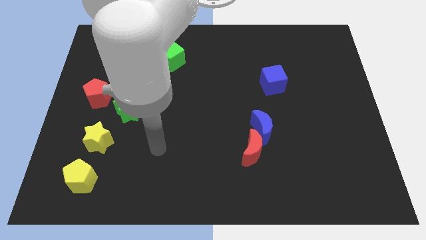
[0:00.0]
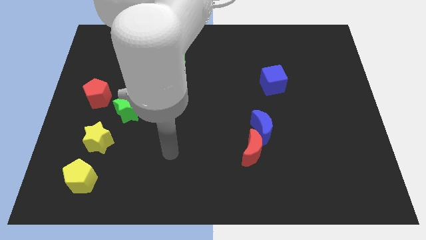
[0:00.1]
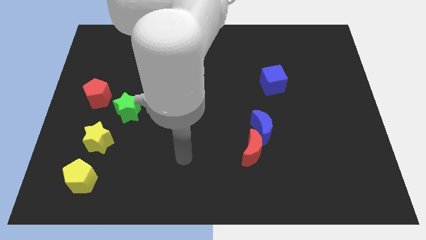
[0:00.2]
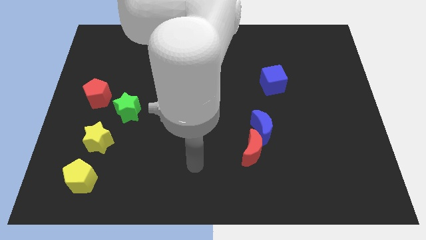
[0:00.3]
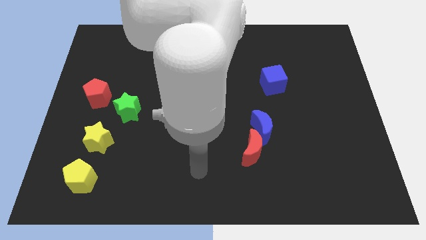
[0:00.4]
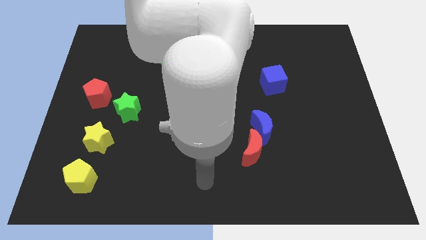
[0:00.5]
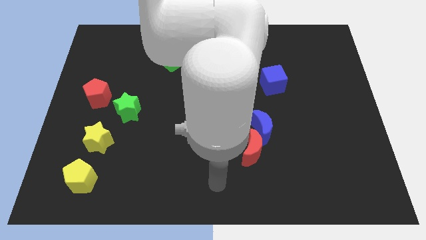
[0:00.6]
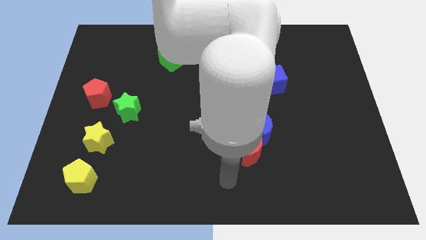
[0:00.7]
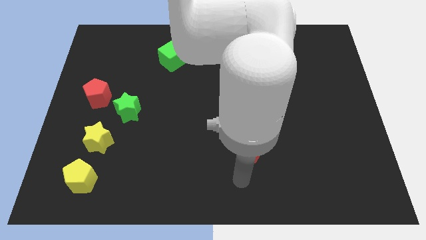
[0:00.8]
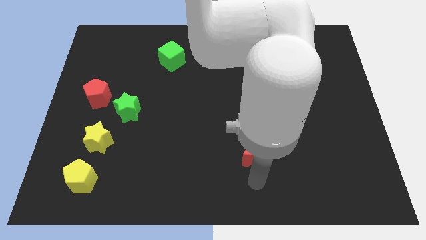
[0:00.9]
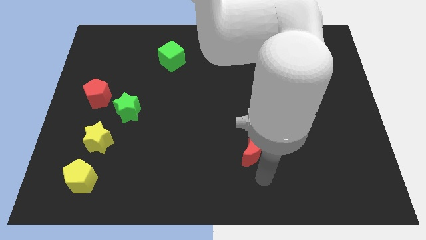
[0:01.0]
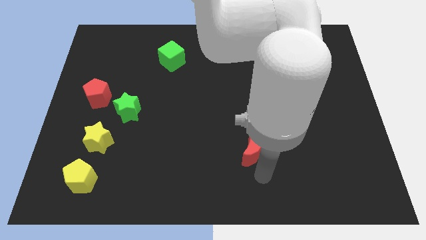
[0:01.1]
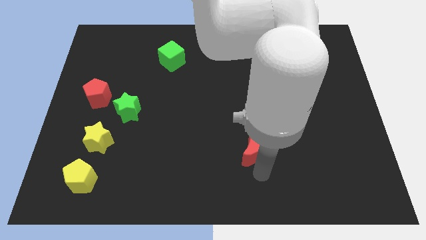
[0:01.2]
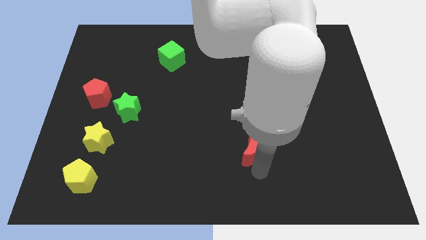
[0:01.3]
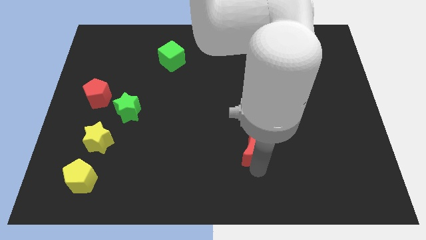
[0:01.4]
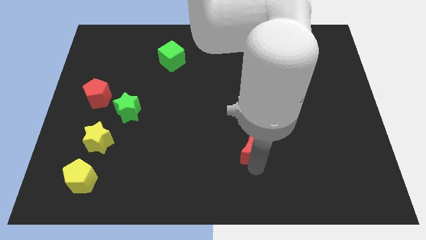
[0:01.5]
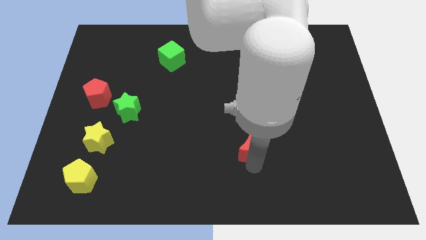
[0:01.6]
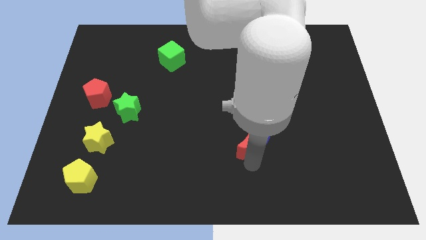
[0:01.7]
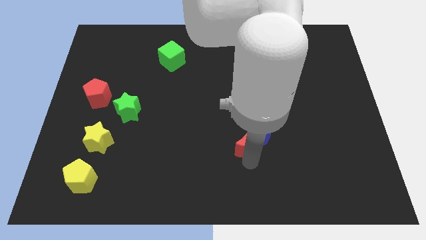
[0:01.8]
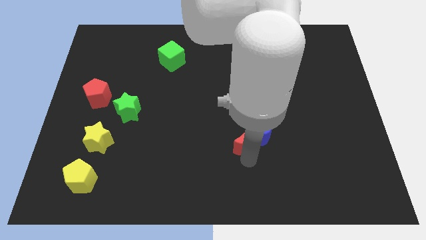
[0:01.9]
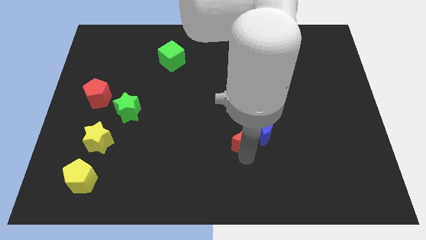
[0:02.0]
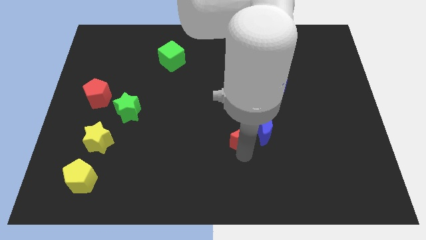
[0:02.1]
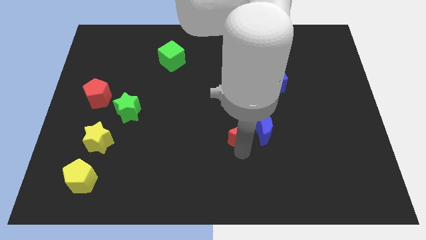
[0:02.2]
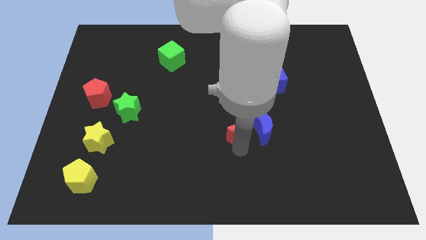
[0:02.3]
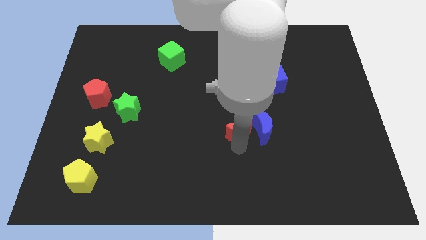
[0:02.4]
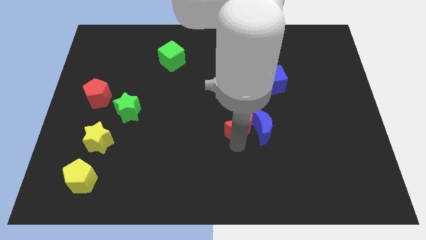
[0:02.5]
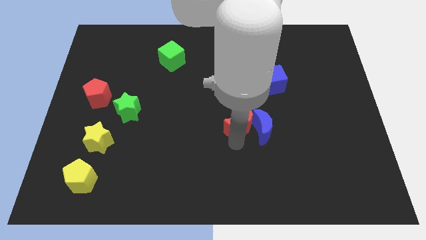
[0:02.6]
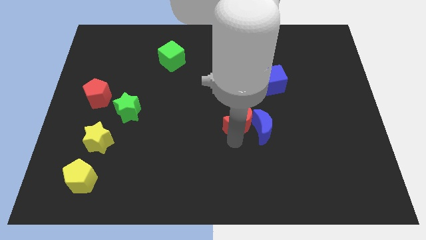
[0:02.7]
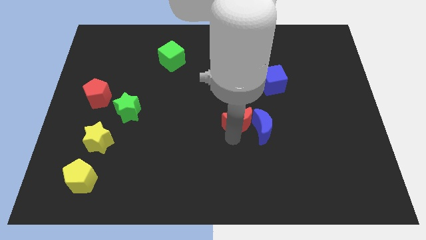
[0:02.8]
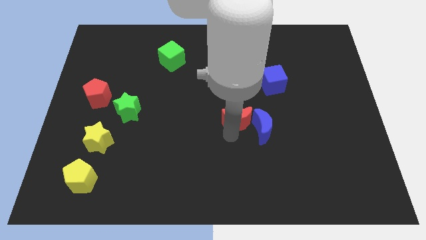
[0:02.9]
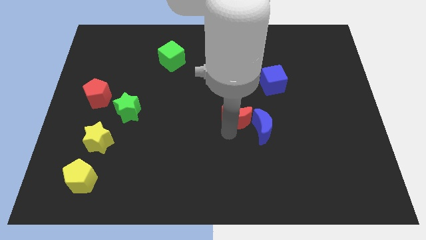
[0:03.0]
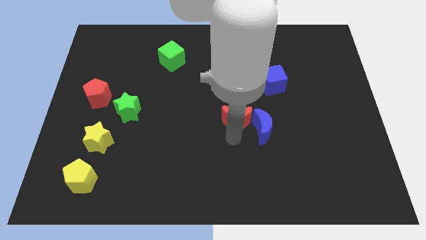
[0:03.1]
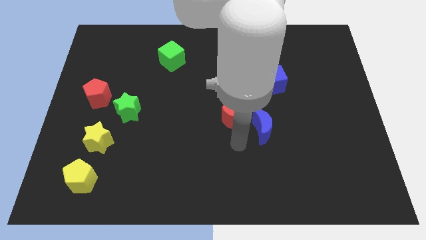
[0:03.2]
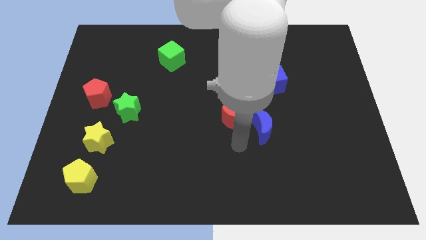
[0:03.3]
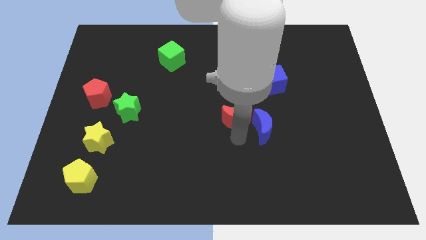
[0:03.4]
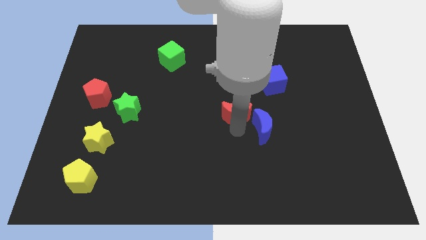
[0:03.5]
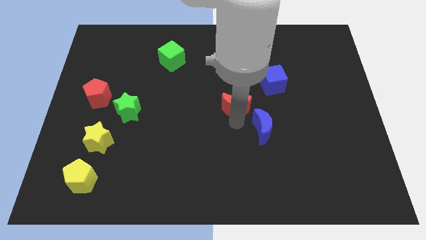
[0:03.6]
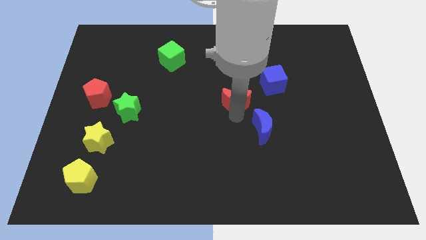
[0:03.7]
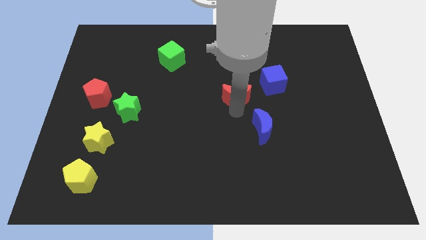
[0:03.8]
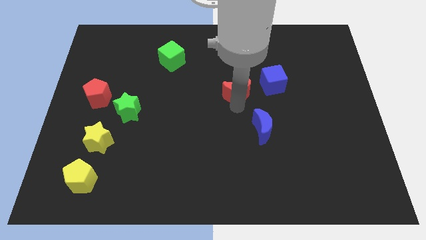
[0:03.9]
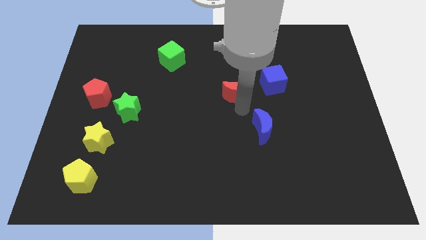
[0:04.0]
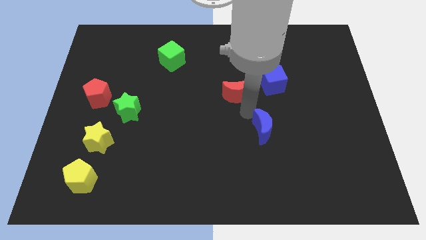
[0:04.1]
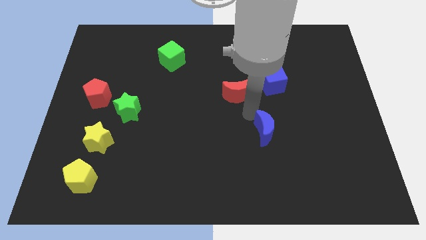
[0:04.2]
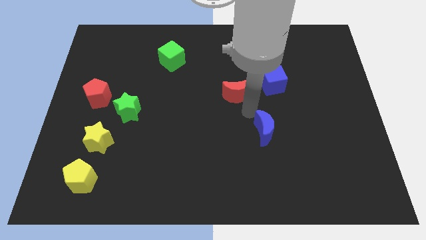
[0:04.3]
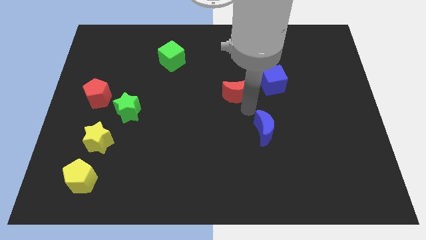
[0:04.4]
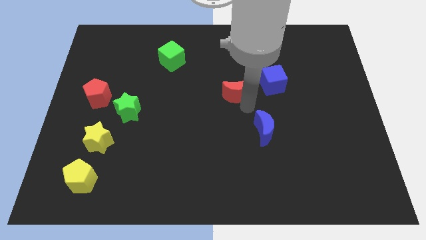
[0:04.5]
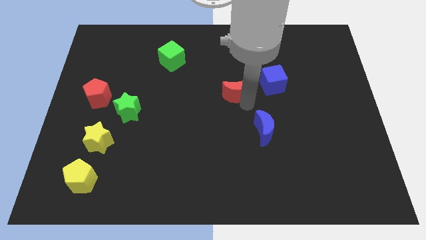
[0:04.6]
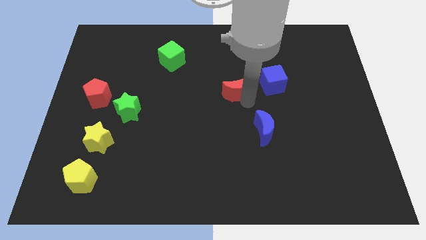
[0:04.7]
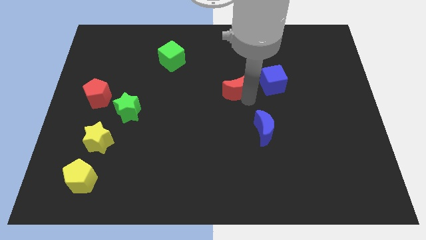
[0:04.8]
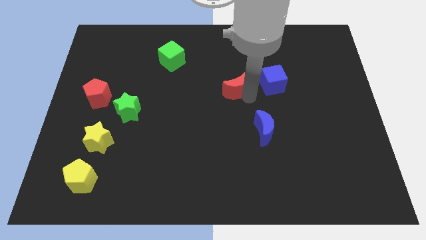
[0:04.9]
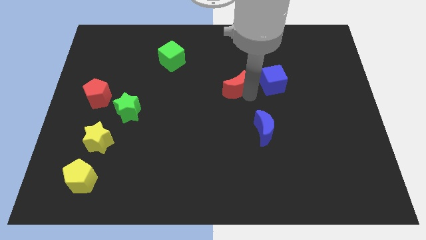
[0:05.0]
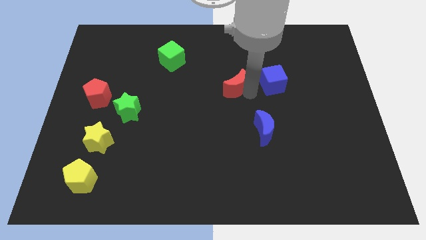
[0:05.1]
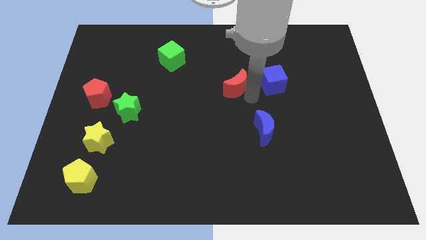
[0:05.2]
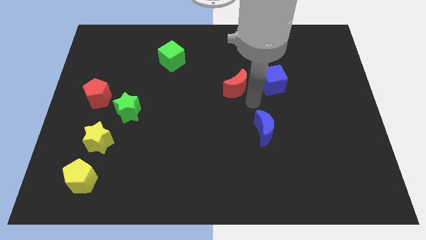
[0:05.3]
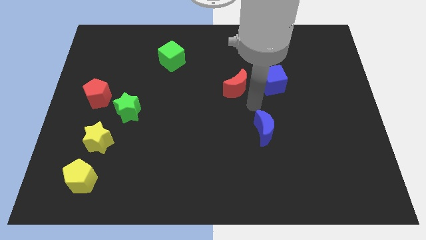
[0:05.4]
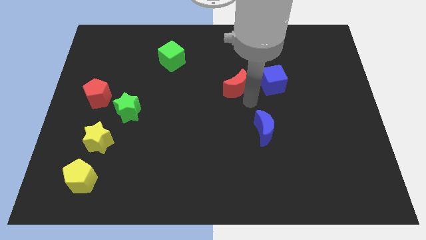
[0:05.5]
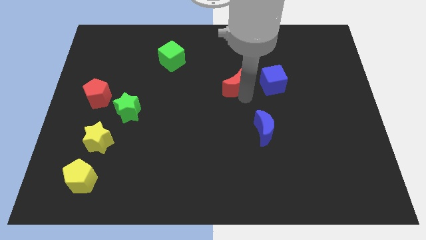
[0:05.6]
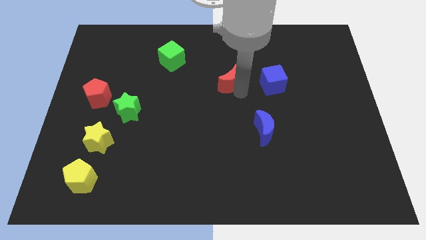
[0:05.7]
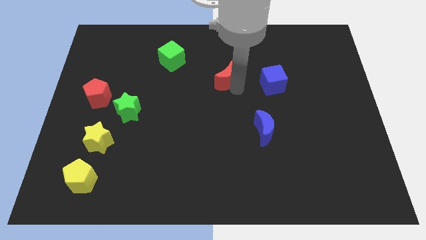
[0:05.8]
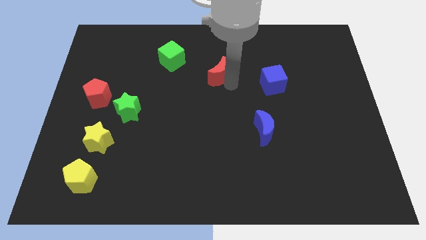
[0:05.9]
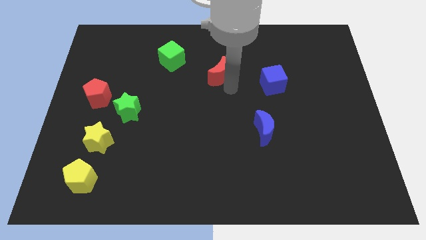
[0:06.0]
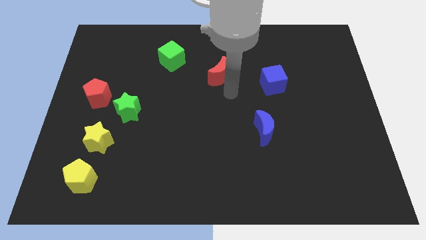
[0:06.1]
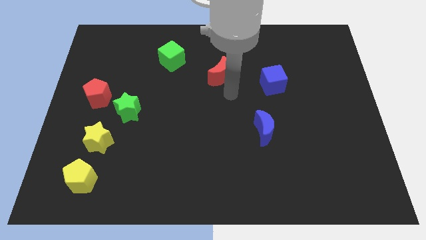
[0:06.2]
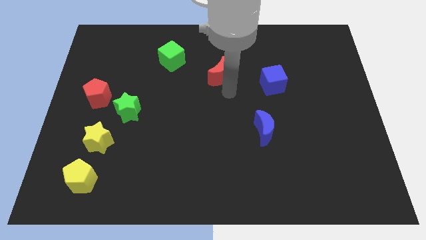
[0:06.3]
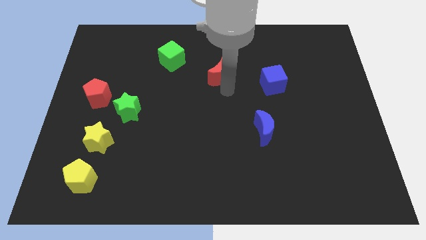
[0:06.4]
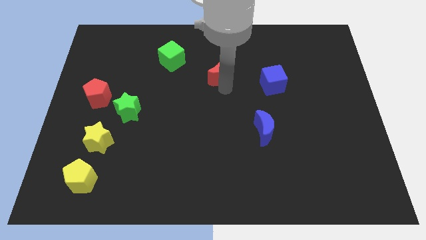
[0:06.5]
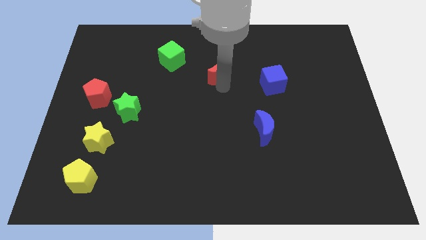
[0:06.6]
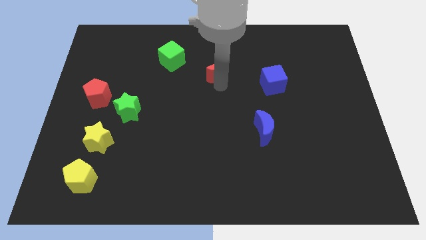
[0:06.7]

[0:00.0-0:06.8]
put the red moon to the right of the green cube

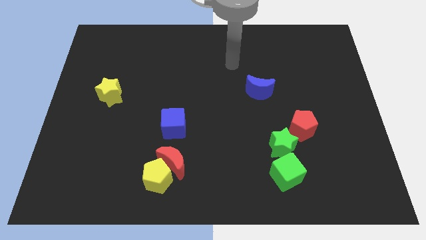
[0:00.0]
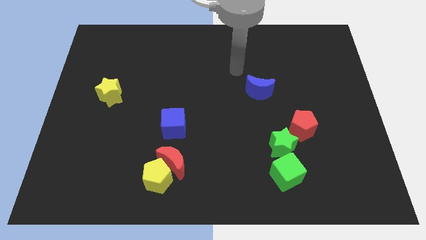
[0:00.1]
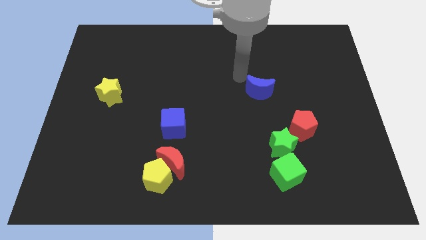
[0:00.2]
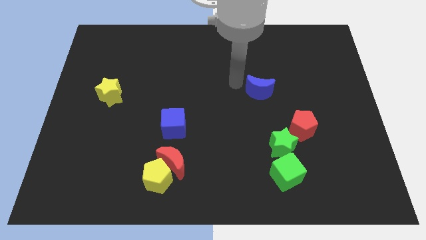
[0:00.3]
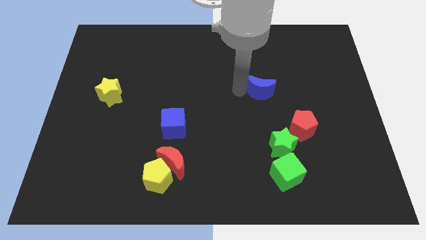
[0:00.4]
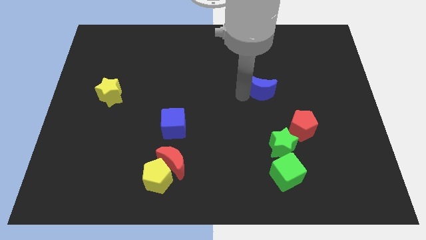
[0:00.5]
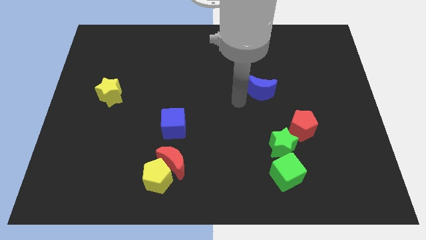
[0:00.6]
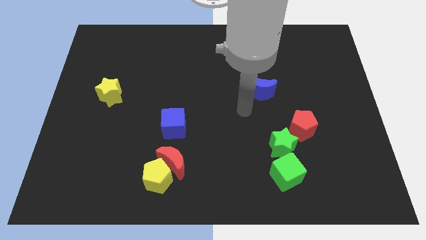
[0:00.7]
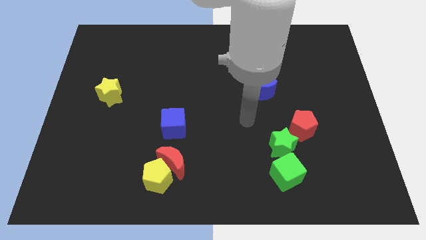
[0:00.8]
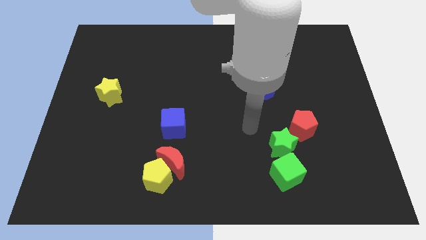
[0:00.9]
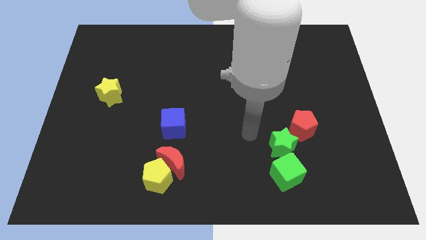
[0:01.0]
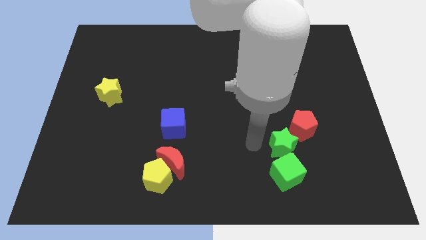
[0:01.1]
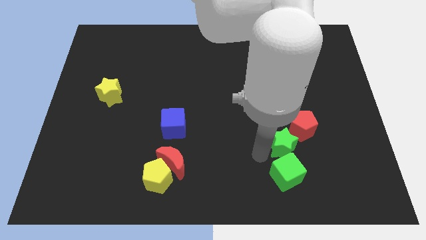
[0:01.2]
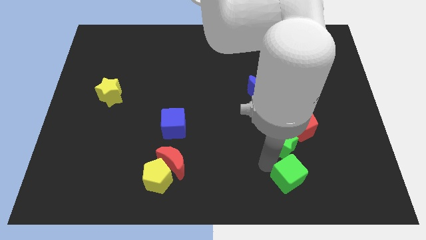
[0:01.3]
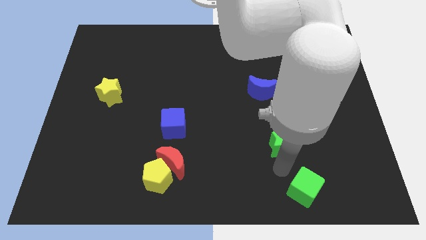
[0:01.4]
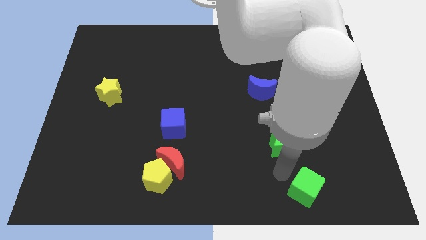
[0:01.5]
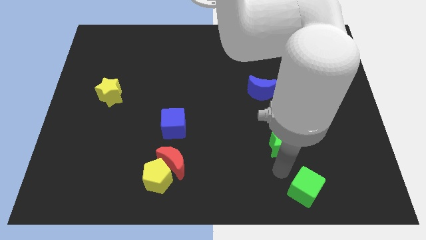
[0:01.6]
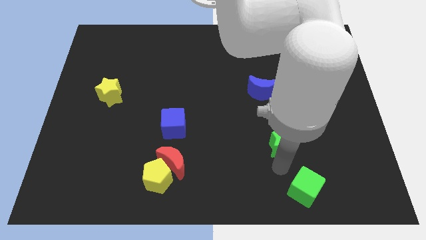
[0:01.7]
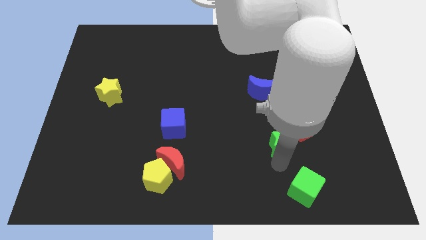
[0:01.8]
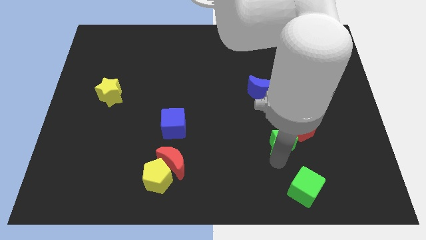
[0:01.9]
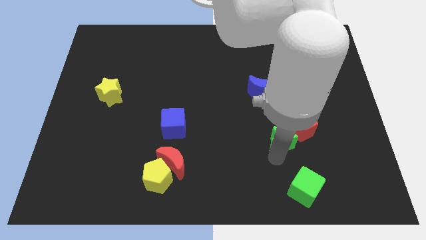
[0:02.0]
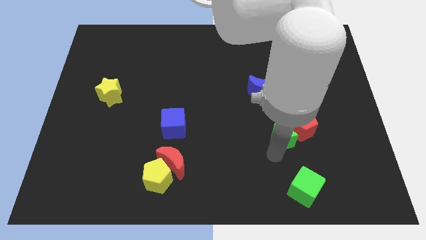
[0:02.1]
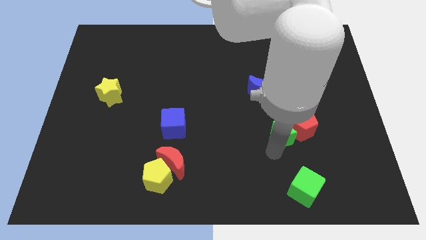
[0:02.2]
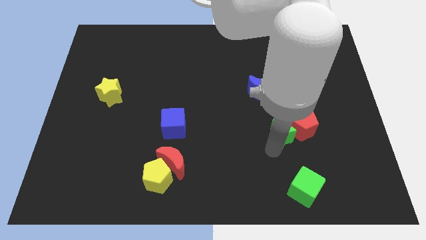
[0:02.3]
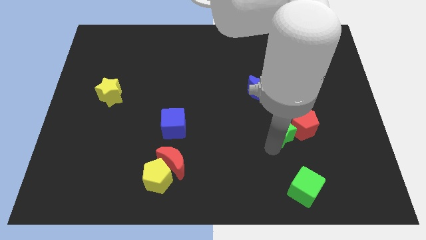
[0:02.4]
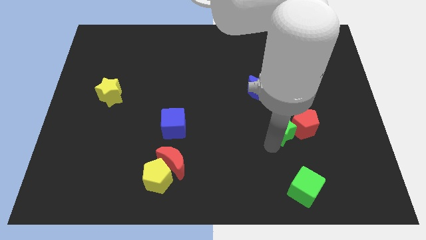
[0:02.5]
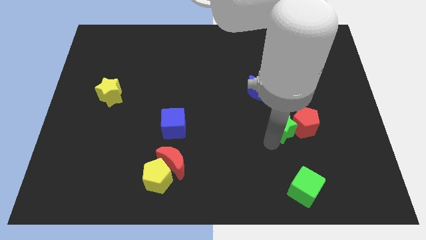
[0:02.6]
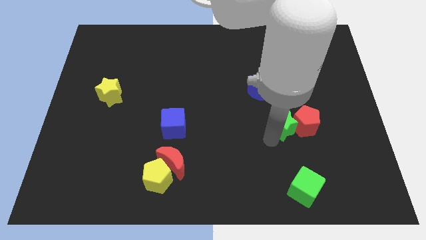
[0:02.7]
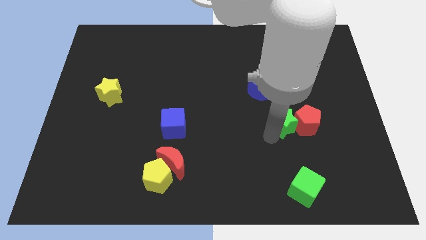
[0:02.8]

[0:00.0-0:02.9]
slide the green star to the bottom right of the blue moon
